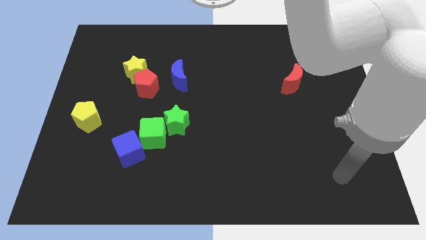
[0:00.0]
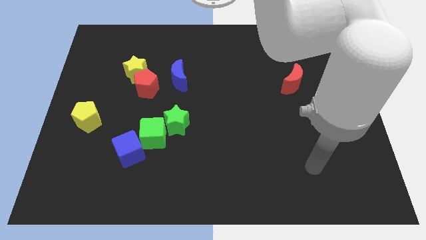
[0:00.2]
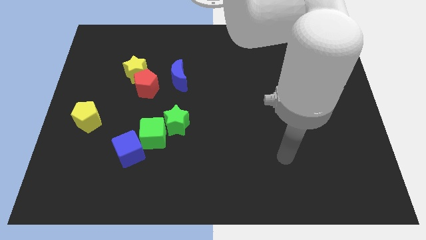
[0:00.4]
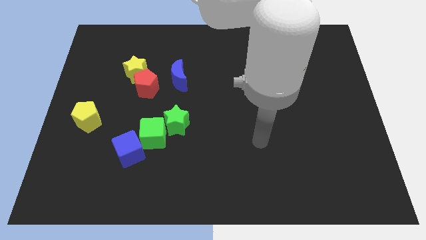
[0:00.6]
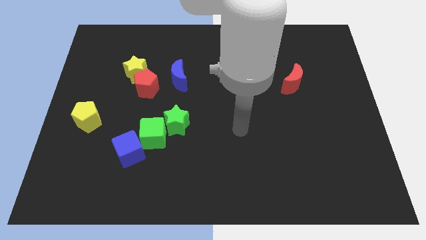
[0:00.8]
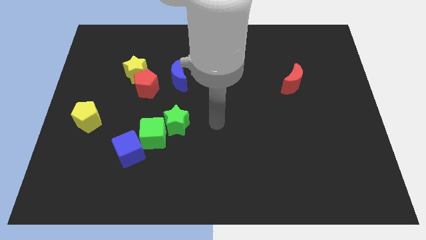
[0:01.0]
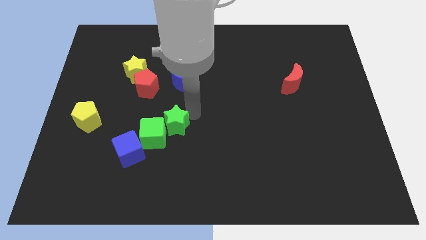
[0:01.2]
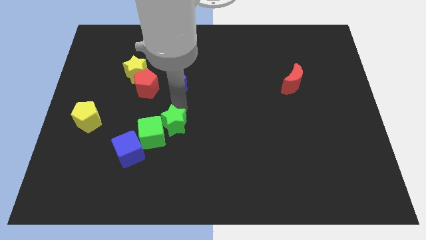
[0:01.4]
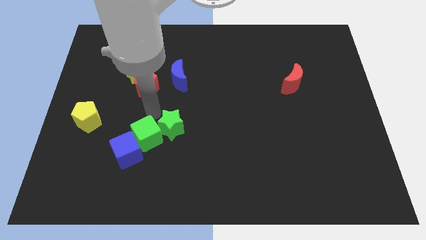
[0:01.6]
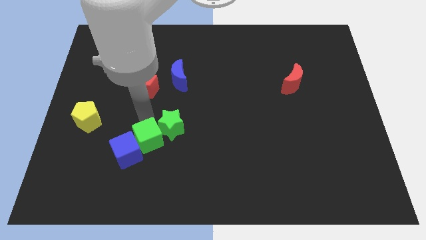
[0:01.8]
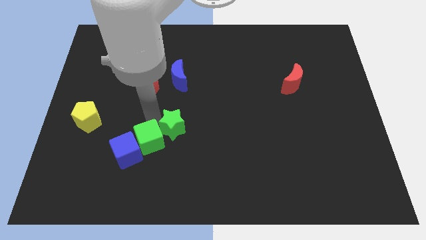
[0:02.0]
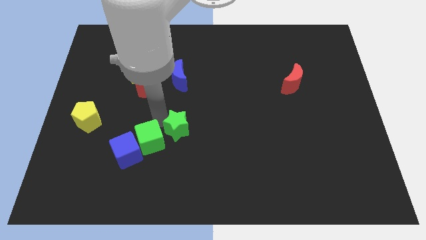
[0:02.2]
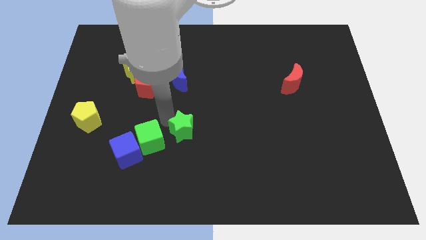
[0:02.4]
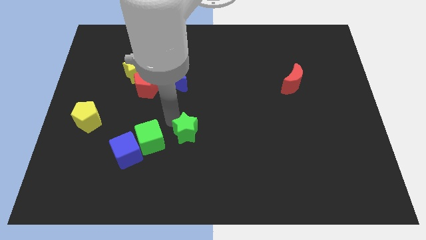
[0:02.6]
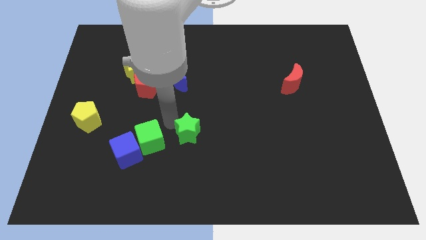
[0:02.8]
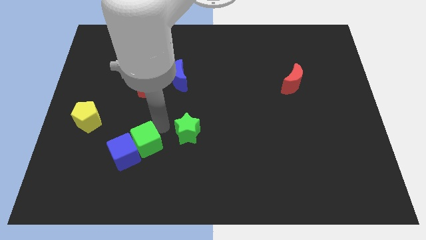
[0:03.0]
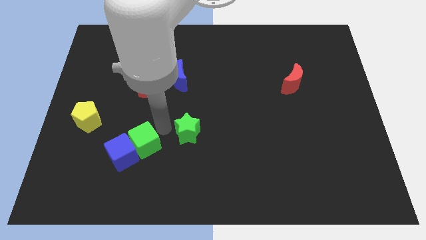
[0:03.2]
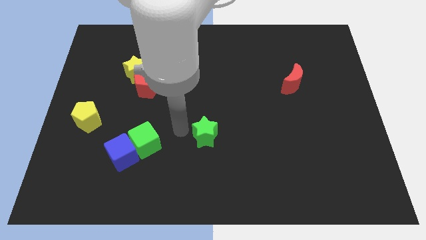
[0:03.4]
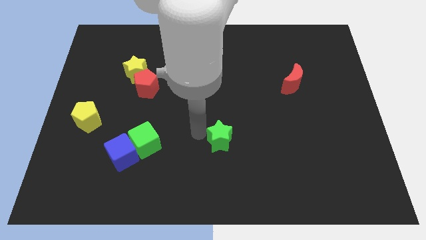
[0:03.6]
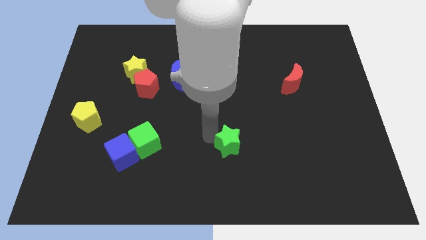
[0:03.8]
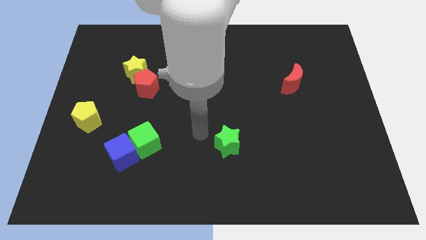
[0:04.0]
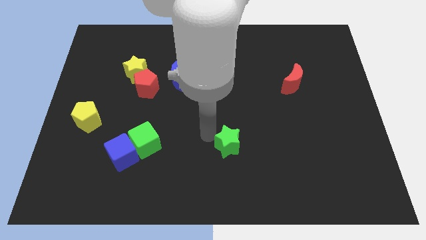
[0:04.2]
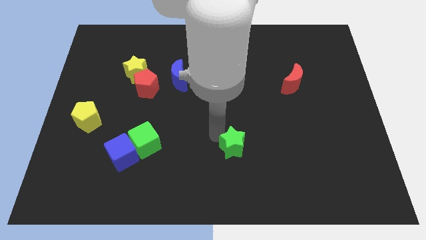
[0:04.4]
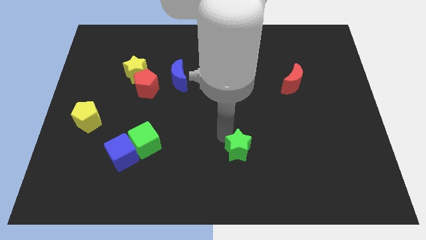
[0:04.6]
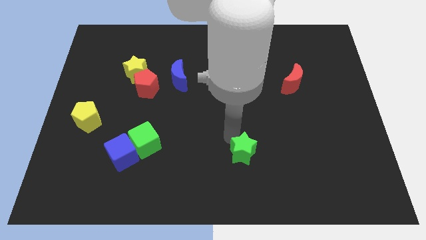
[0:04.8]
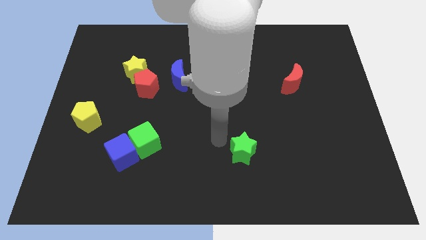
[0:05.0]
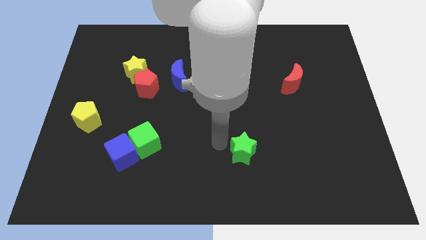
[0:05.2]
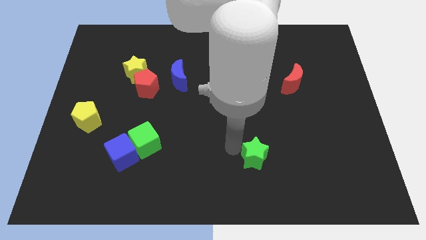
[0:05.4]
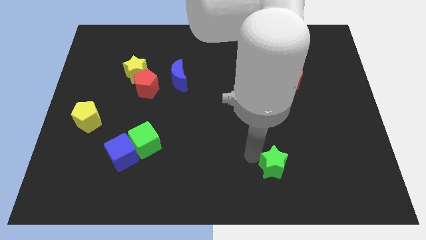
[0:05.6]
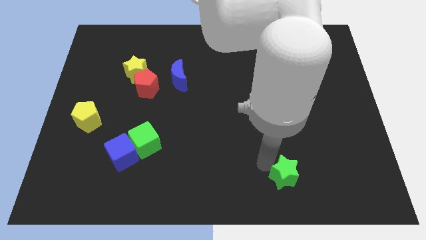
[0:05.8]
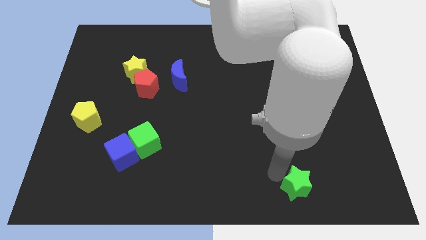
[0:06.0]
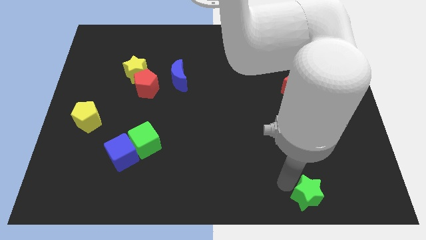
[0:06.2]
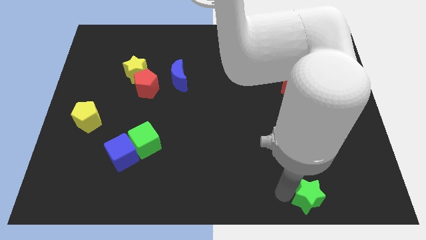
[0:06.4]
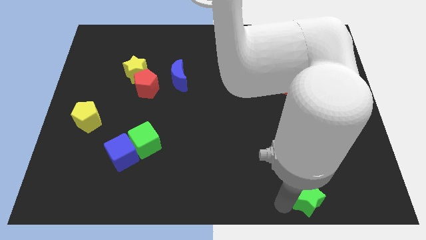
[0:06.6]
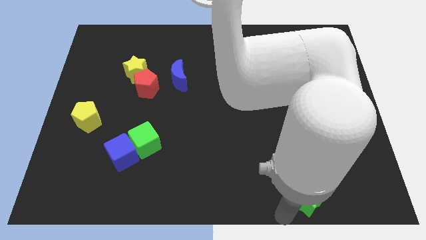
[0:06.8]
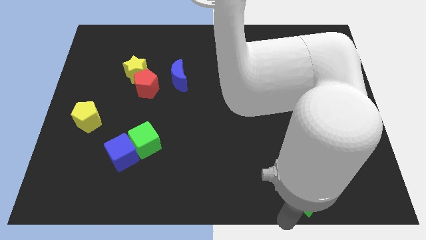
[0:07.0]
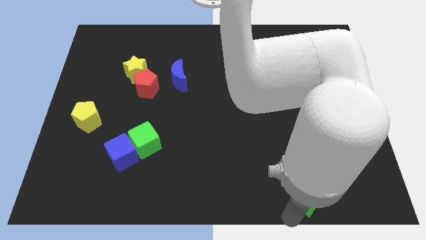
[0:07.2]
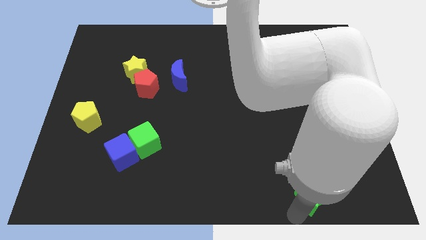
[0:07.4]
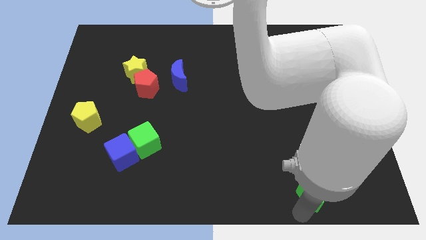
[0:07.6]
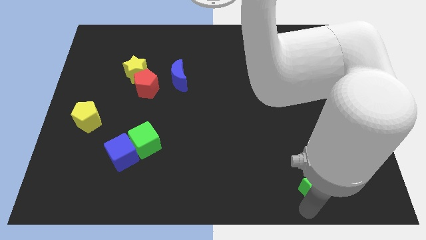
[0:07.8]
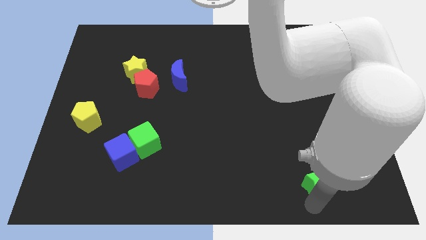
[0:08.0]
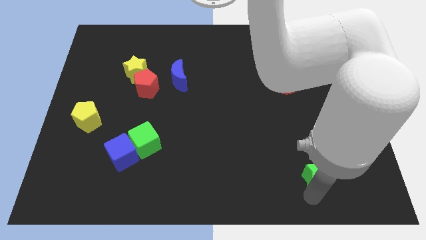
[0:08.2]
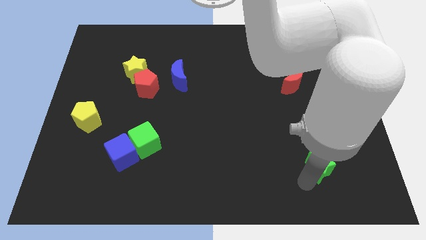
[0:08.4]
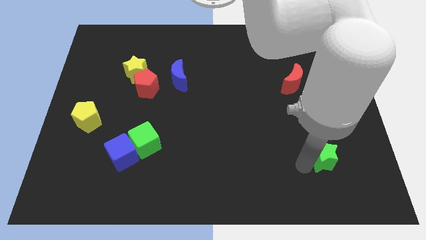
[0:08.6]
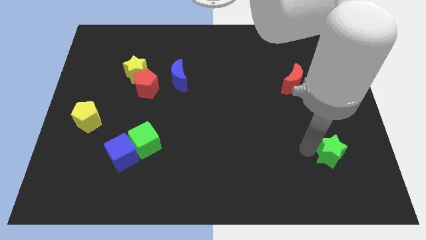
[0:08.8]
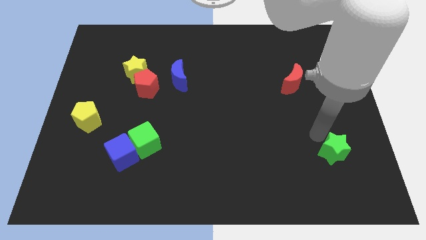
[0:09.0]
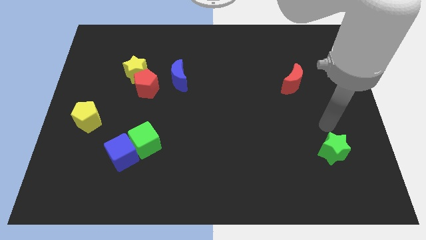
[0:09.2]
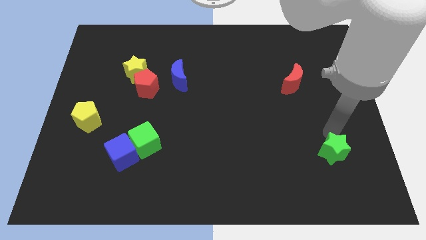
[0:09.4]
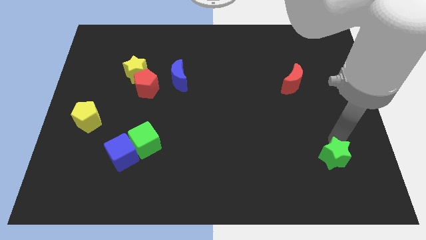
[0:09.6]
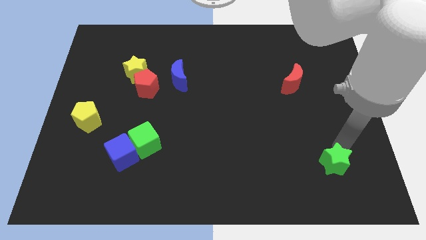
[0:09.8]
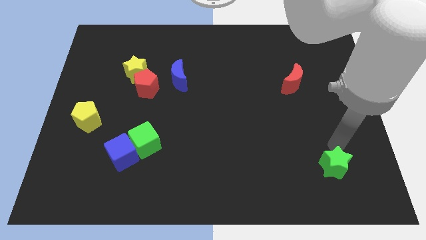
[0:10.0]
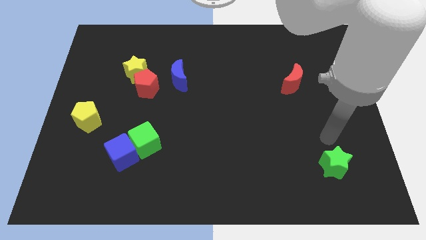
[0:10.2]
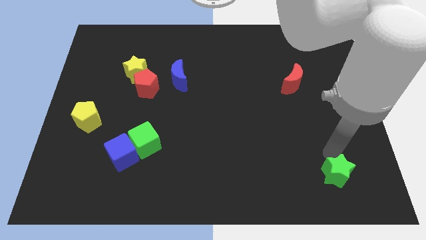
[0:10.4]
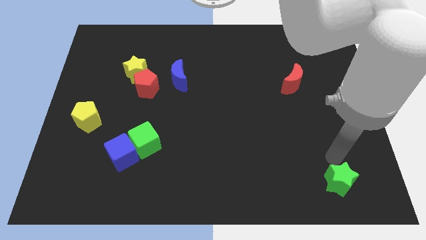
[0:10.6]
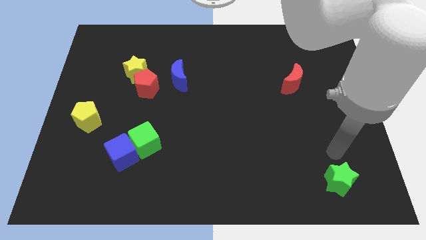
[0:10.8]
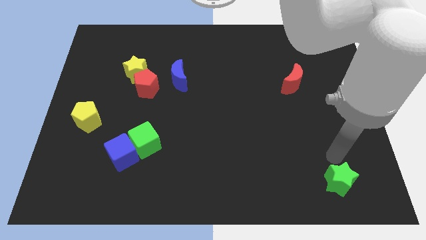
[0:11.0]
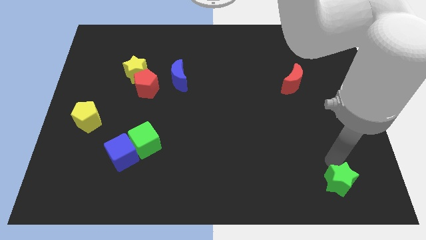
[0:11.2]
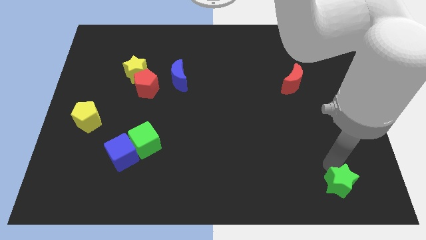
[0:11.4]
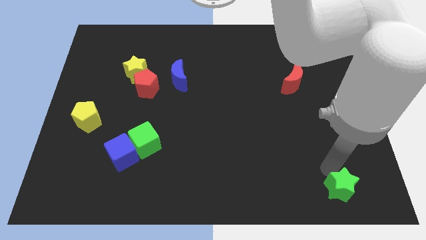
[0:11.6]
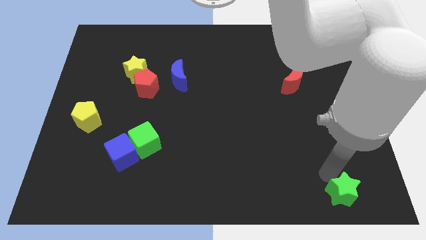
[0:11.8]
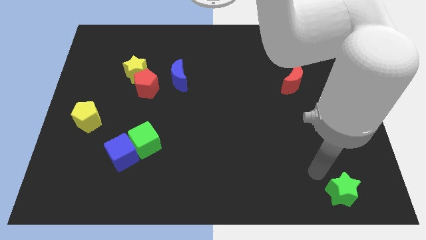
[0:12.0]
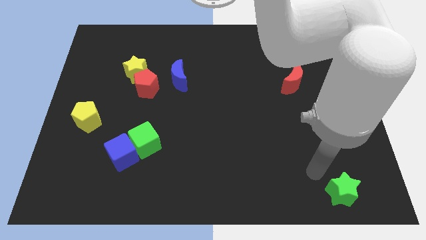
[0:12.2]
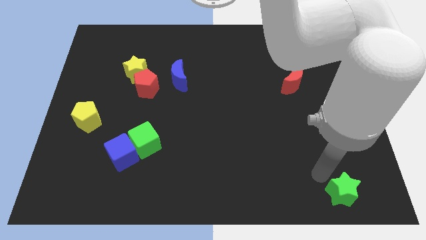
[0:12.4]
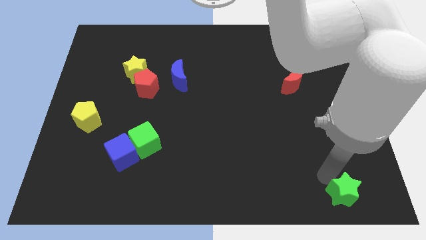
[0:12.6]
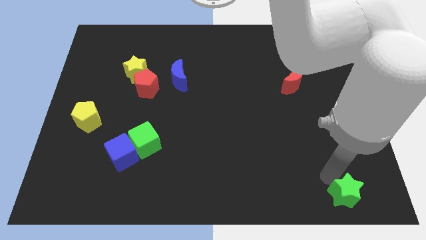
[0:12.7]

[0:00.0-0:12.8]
put the green star to the bottom right corner

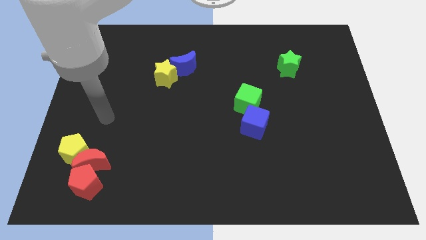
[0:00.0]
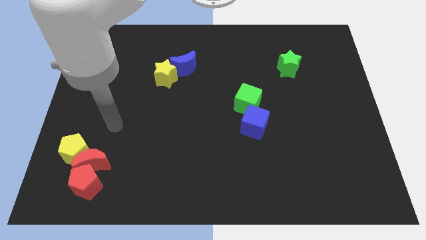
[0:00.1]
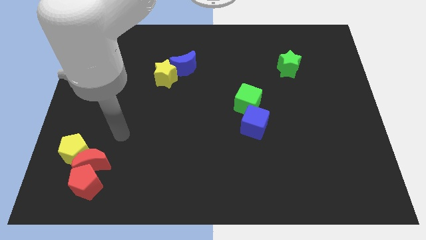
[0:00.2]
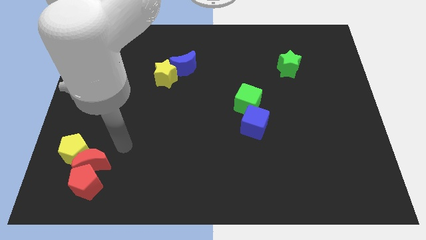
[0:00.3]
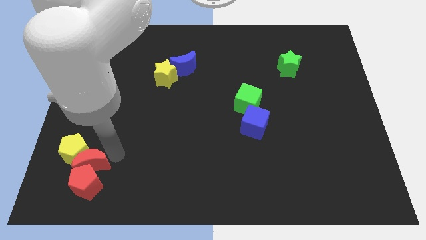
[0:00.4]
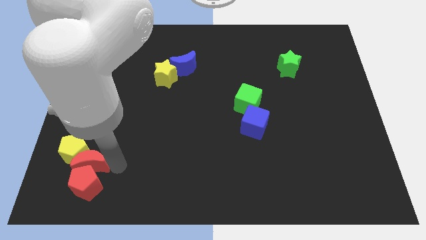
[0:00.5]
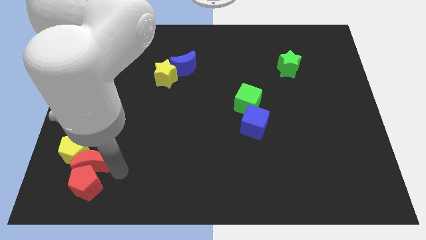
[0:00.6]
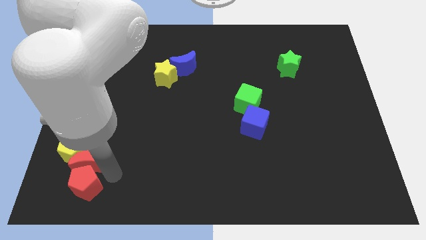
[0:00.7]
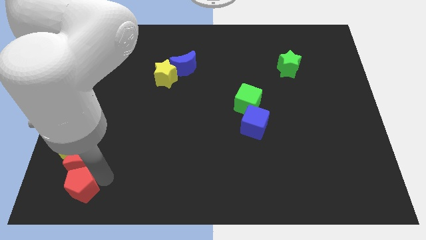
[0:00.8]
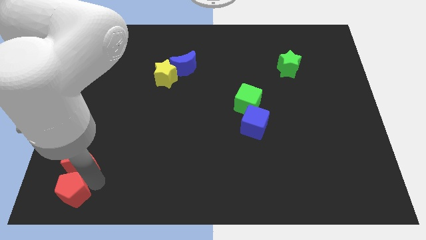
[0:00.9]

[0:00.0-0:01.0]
put the red pentagon to the bottom left

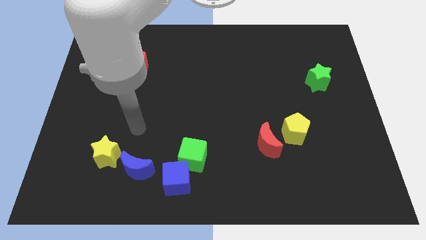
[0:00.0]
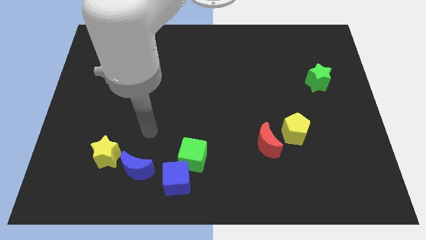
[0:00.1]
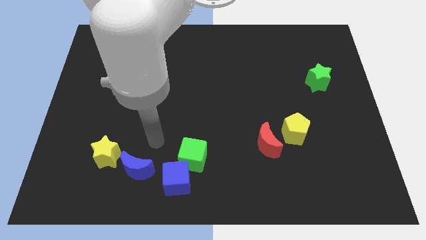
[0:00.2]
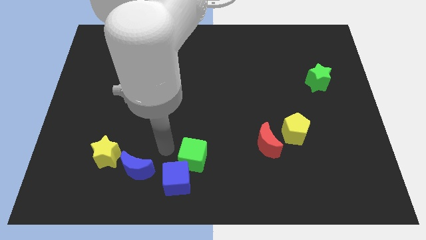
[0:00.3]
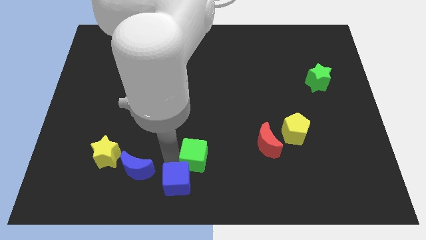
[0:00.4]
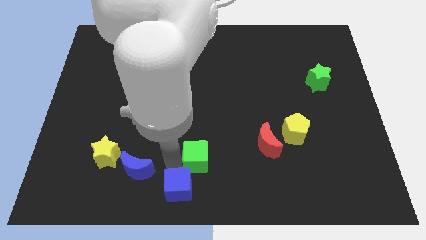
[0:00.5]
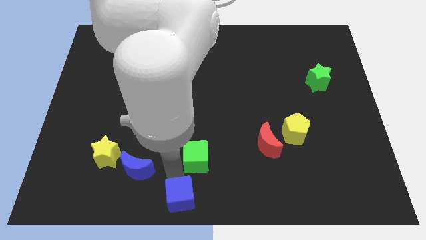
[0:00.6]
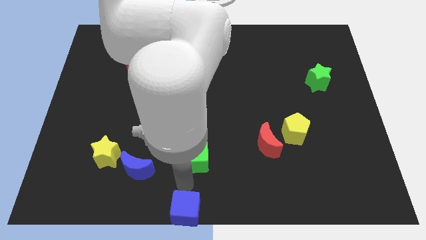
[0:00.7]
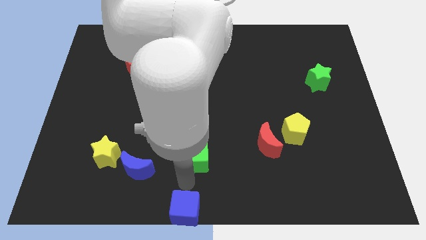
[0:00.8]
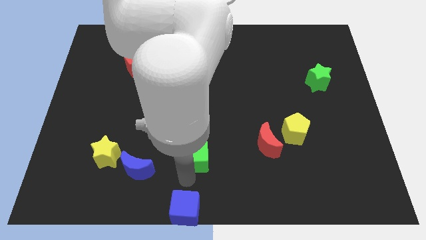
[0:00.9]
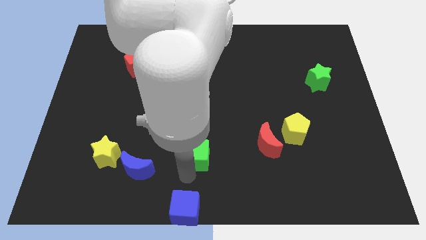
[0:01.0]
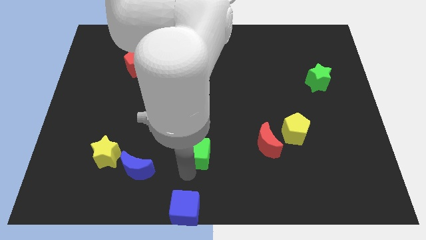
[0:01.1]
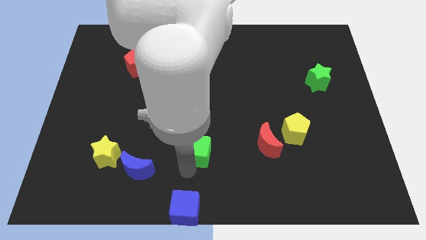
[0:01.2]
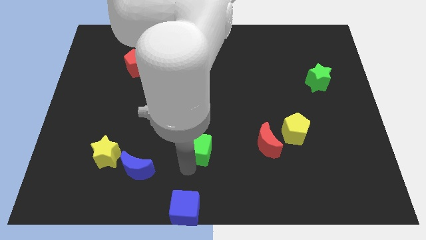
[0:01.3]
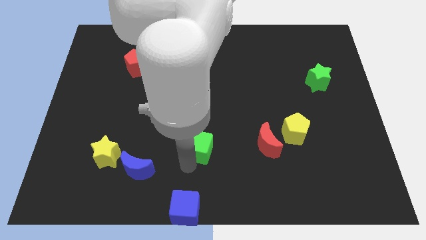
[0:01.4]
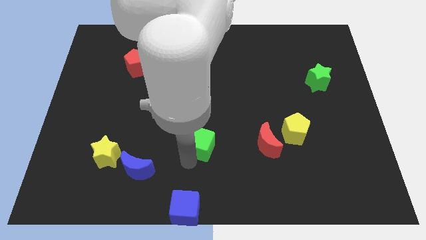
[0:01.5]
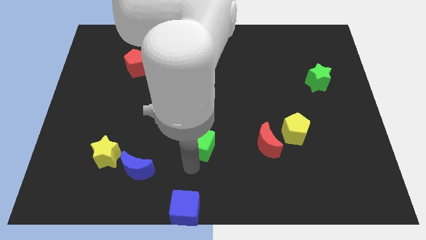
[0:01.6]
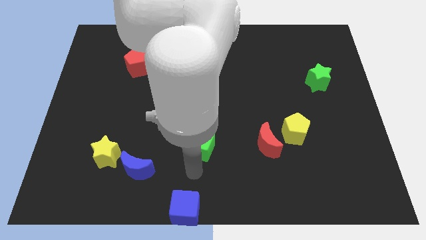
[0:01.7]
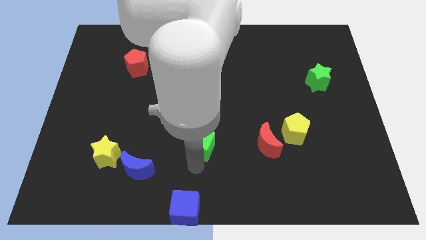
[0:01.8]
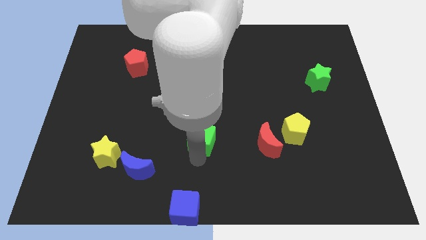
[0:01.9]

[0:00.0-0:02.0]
move the green cube to the center of the board
